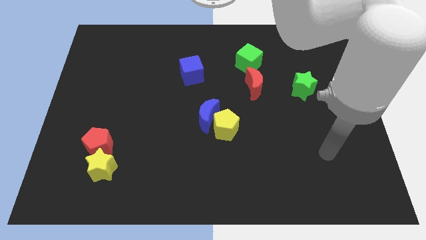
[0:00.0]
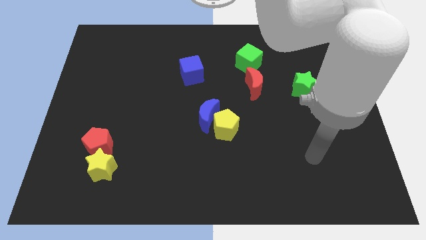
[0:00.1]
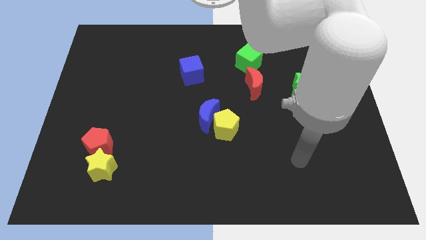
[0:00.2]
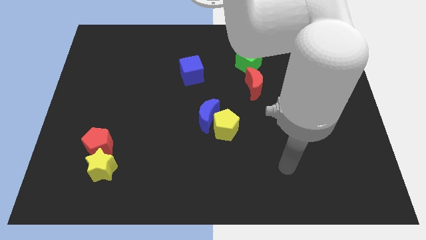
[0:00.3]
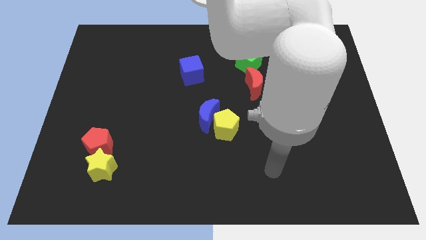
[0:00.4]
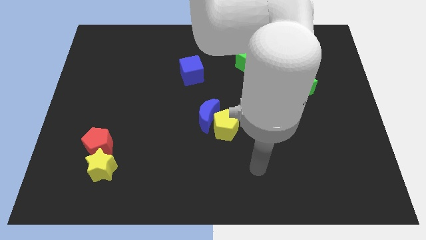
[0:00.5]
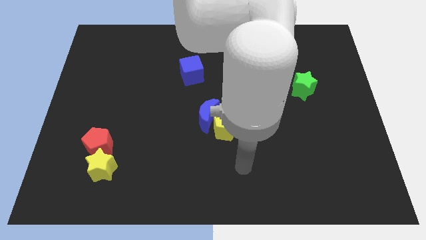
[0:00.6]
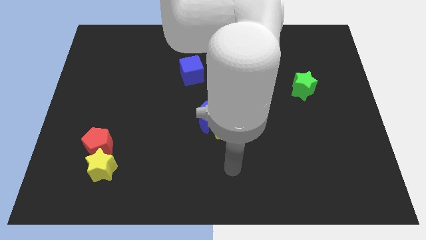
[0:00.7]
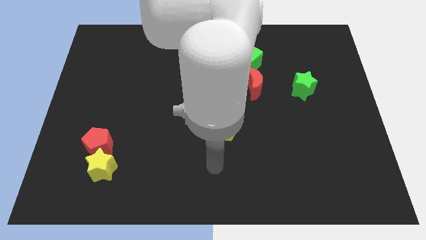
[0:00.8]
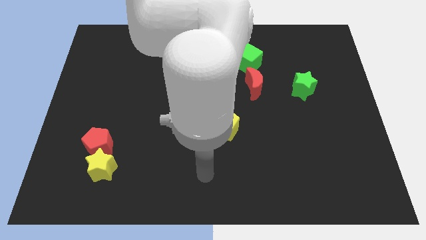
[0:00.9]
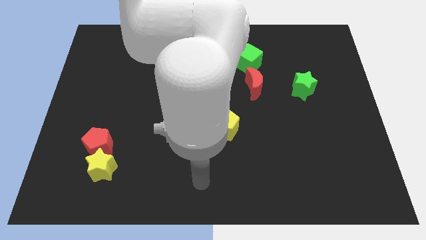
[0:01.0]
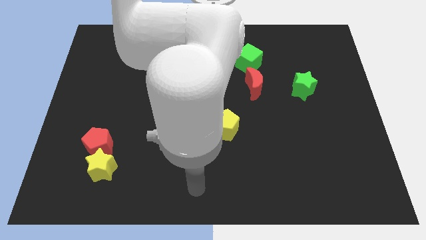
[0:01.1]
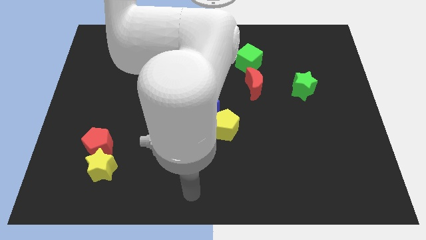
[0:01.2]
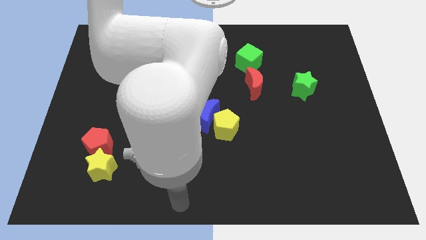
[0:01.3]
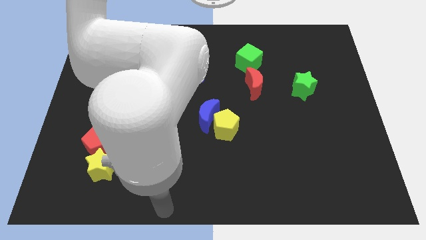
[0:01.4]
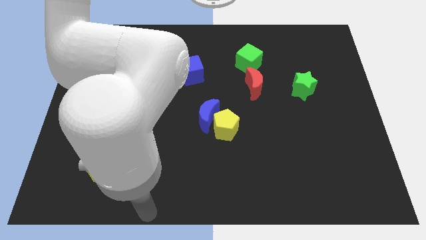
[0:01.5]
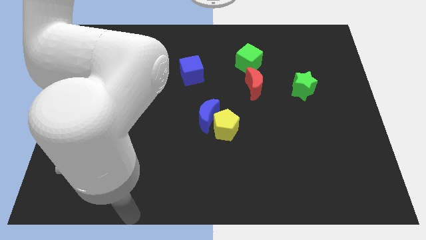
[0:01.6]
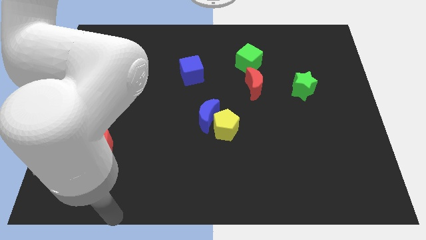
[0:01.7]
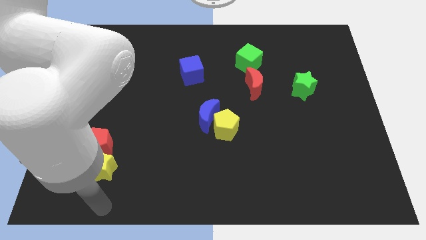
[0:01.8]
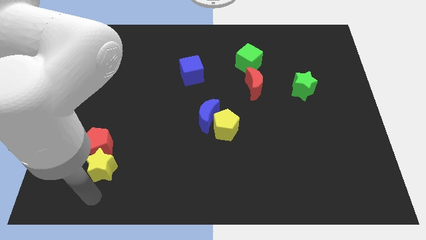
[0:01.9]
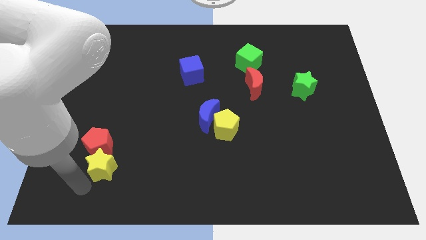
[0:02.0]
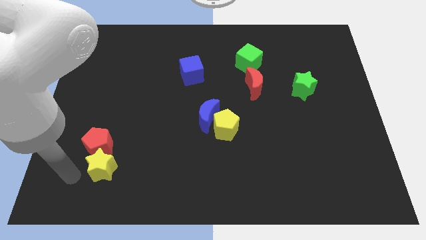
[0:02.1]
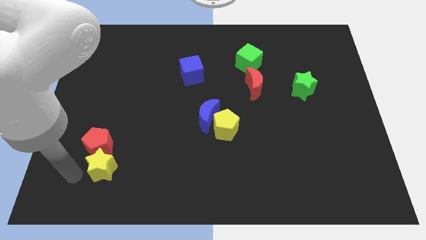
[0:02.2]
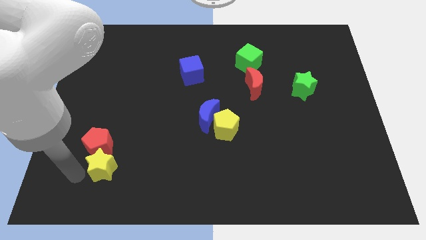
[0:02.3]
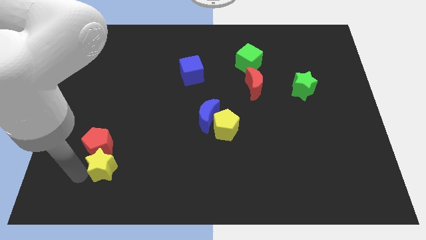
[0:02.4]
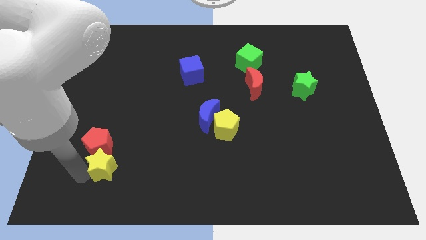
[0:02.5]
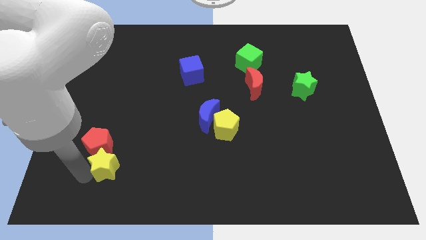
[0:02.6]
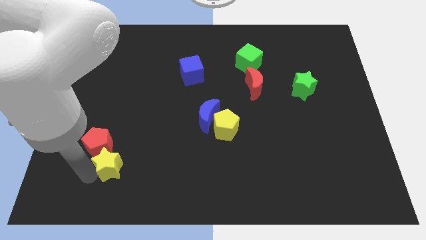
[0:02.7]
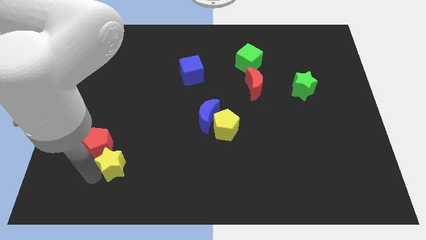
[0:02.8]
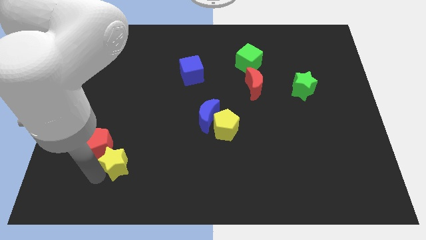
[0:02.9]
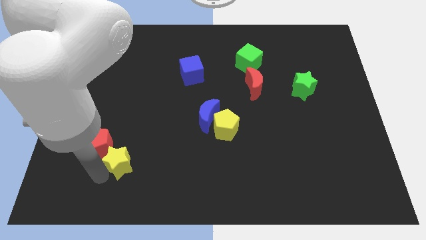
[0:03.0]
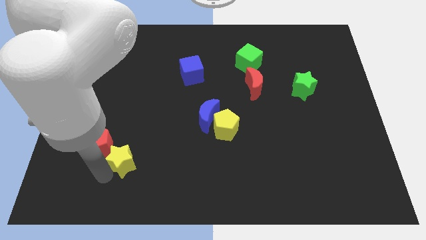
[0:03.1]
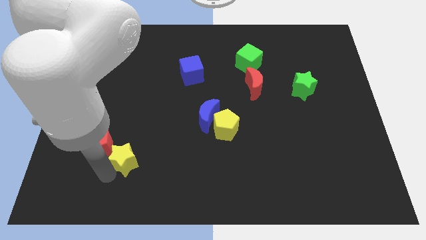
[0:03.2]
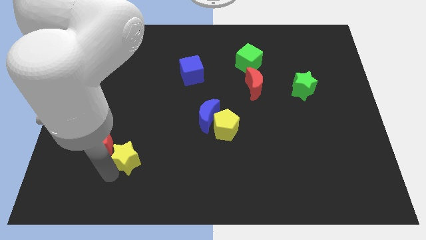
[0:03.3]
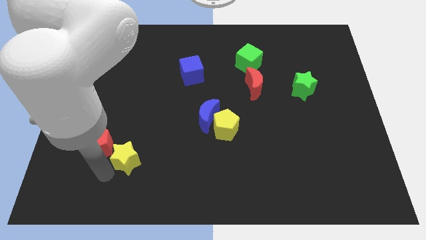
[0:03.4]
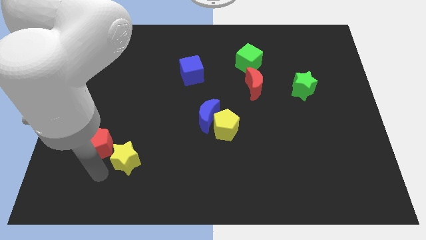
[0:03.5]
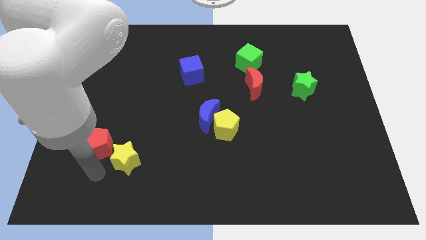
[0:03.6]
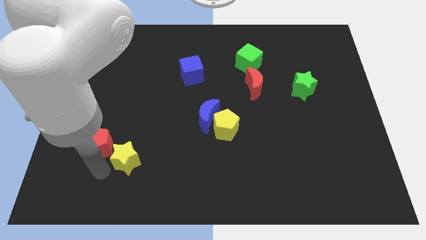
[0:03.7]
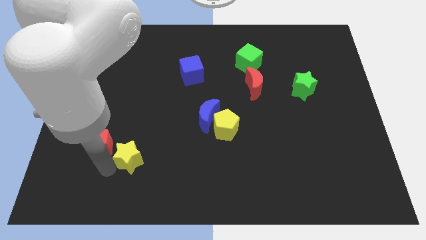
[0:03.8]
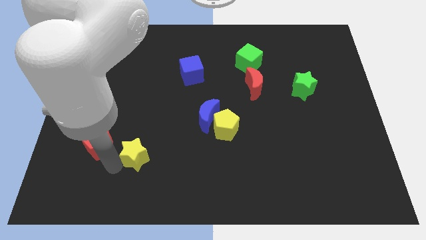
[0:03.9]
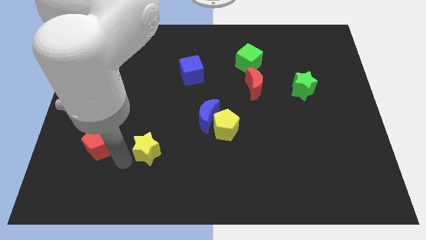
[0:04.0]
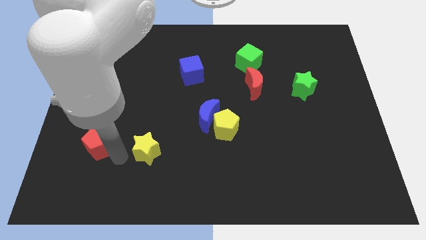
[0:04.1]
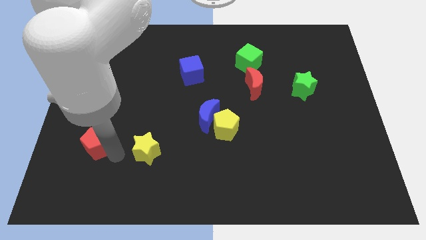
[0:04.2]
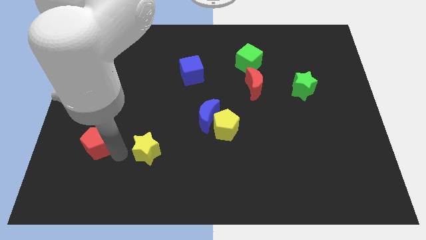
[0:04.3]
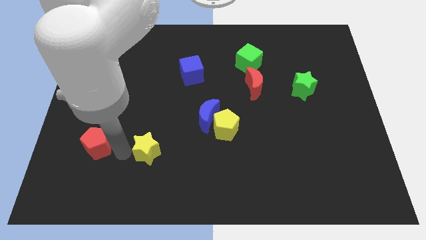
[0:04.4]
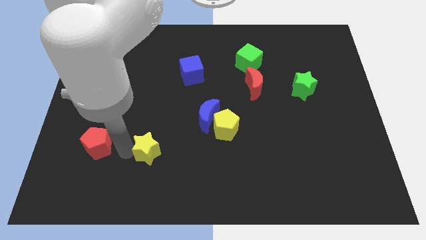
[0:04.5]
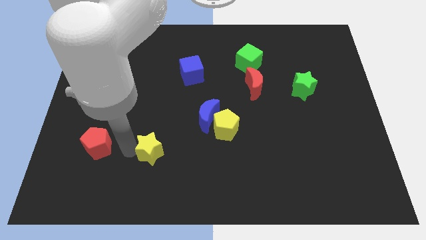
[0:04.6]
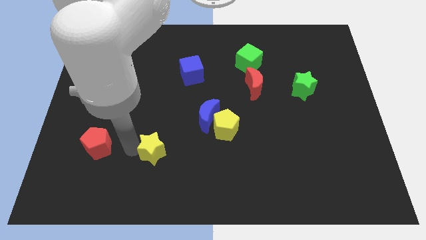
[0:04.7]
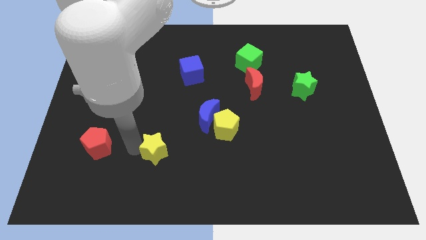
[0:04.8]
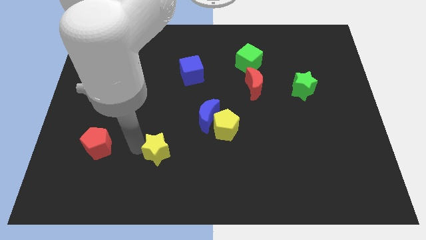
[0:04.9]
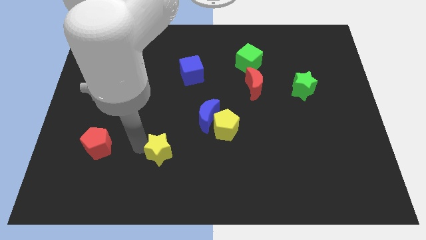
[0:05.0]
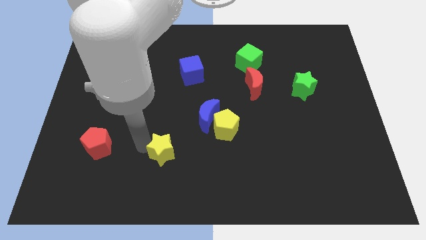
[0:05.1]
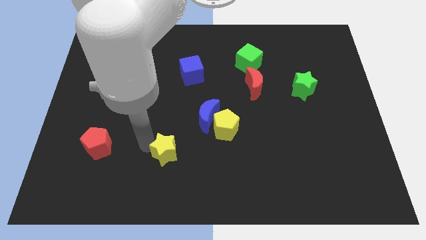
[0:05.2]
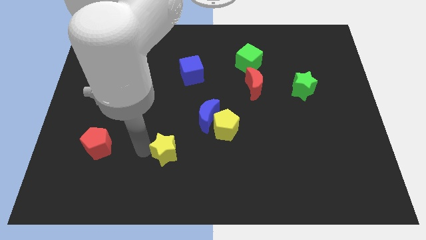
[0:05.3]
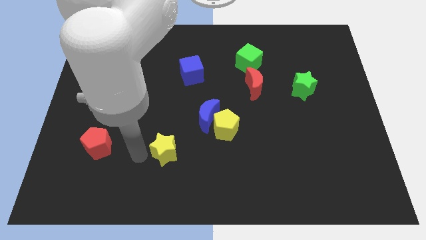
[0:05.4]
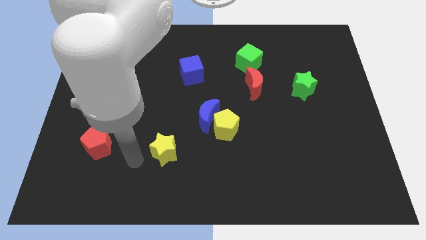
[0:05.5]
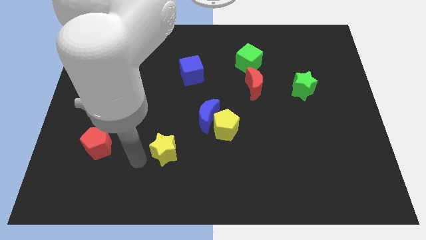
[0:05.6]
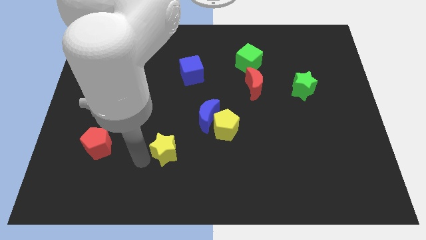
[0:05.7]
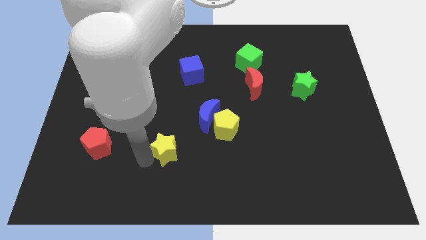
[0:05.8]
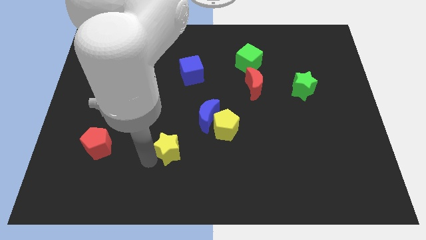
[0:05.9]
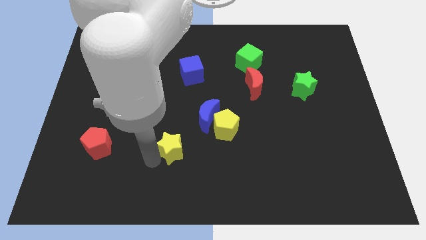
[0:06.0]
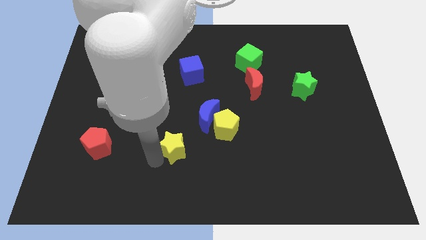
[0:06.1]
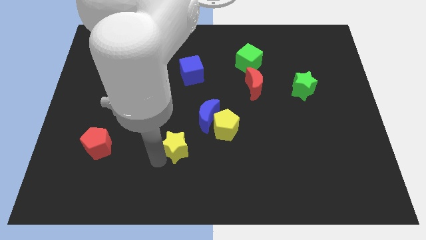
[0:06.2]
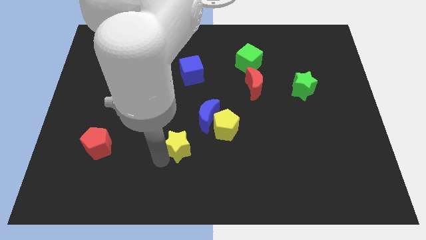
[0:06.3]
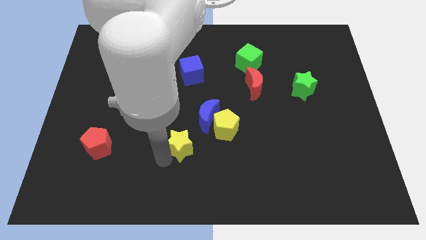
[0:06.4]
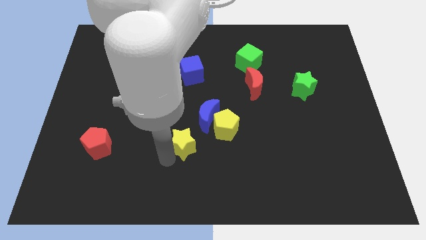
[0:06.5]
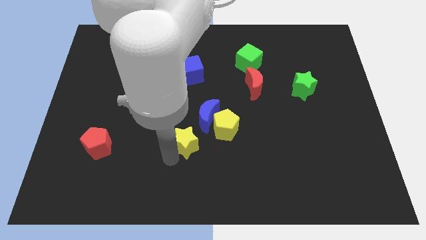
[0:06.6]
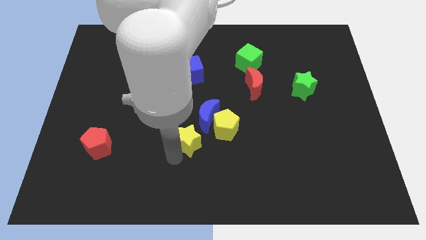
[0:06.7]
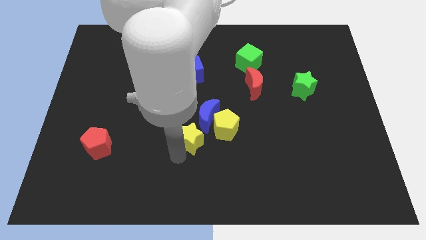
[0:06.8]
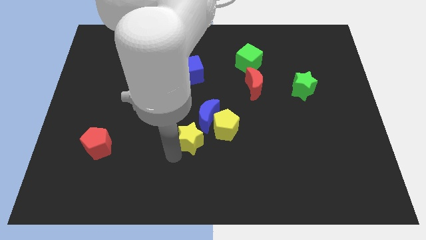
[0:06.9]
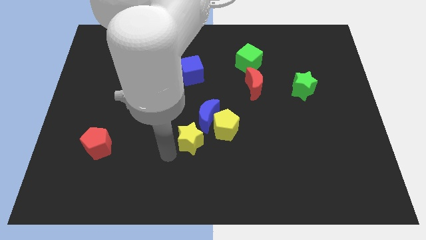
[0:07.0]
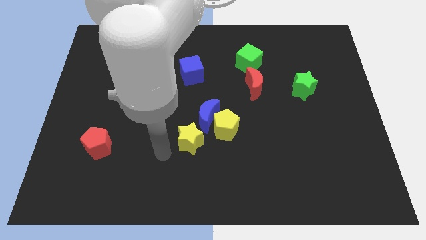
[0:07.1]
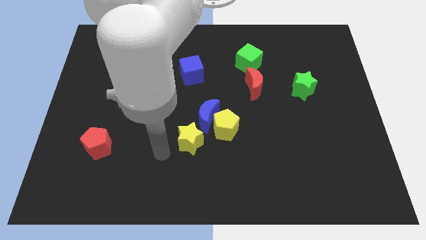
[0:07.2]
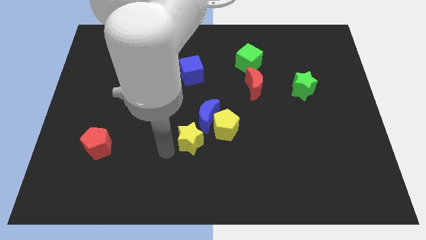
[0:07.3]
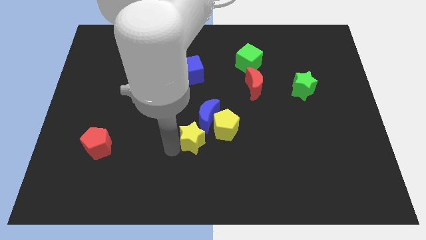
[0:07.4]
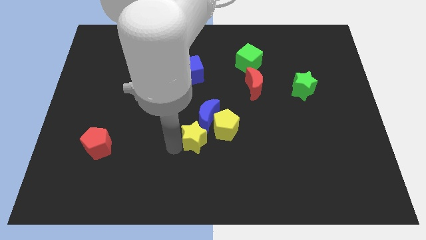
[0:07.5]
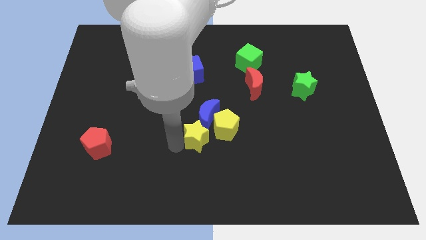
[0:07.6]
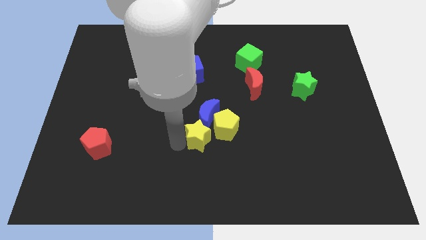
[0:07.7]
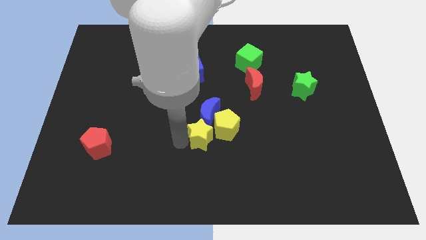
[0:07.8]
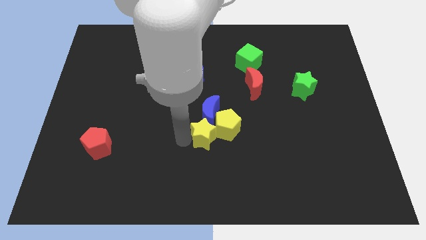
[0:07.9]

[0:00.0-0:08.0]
move the yellow star close to the yellow pentagon
